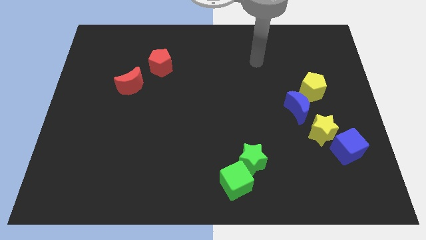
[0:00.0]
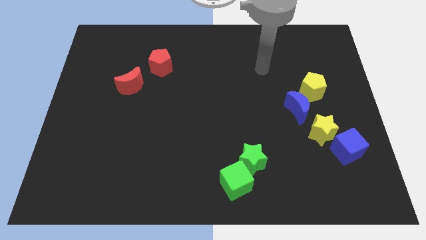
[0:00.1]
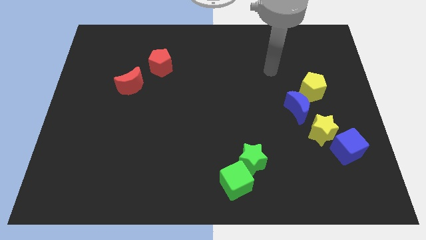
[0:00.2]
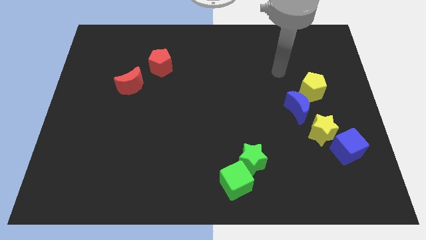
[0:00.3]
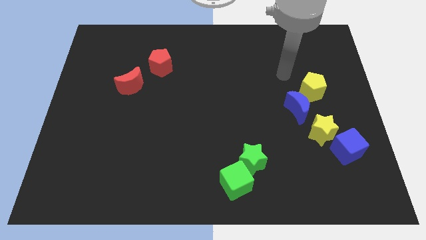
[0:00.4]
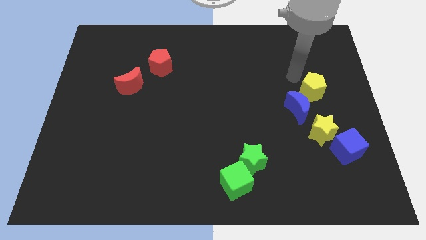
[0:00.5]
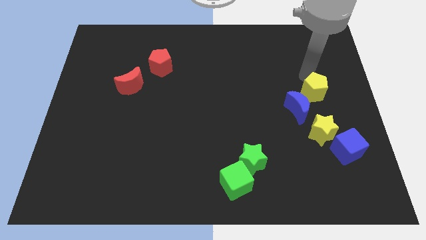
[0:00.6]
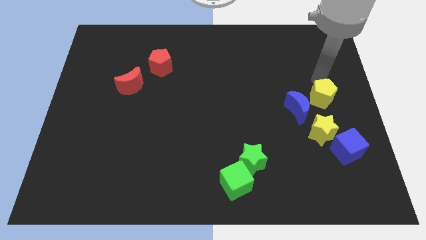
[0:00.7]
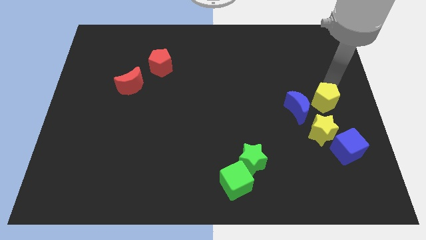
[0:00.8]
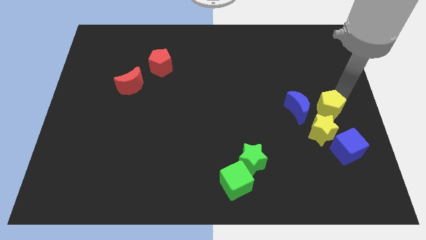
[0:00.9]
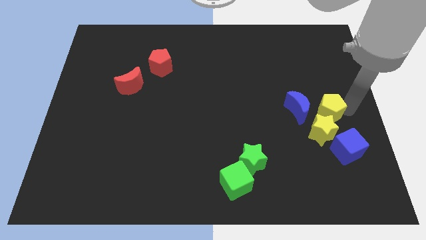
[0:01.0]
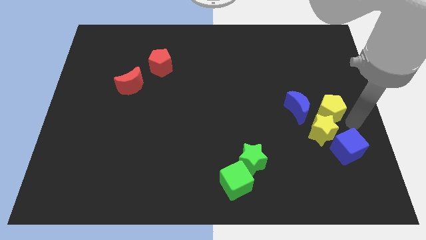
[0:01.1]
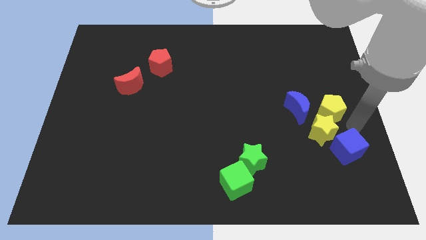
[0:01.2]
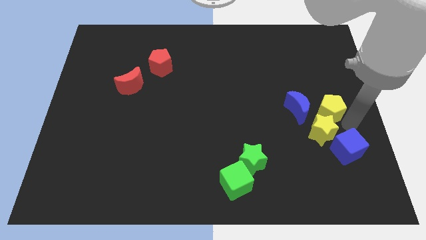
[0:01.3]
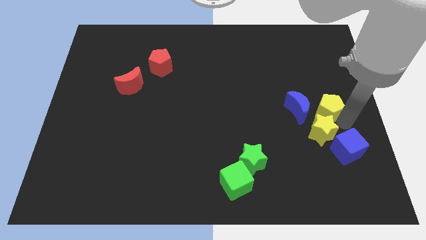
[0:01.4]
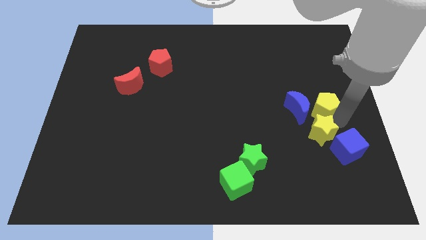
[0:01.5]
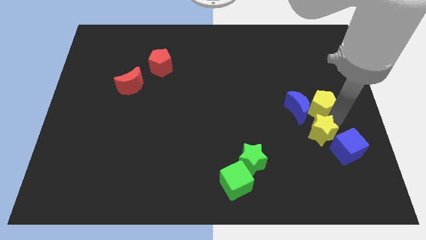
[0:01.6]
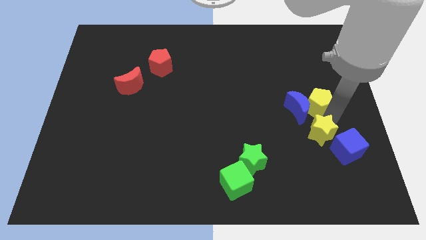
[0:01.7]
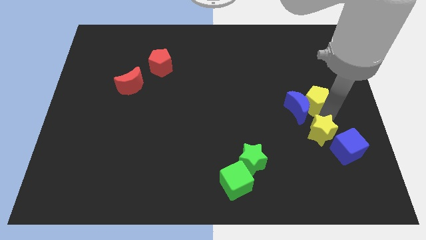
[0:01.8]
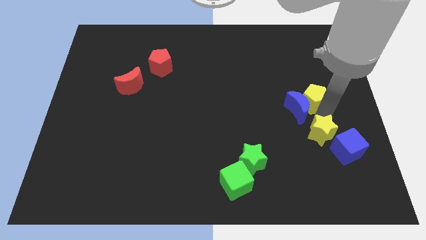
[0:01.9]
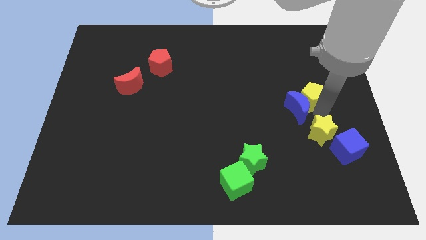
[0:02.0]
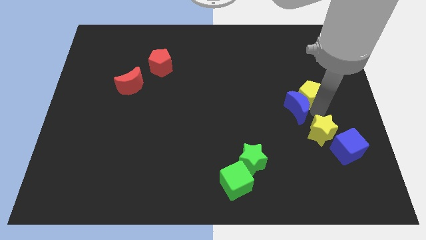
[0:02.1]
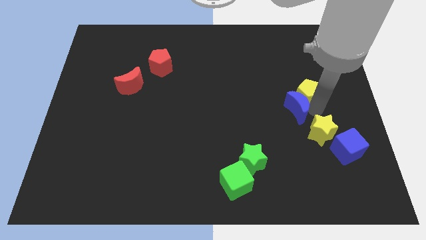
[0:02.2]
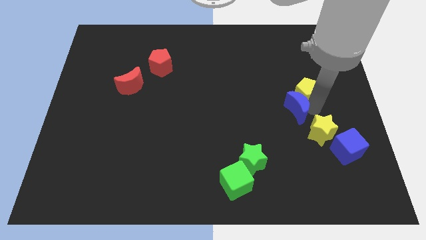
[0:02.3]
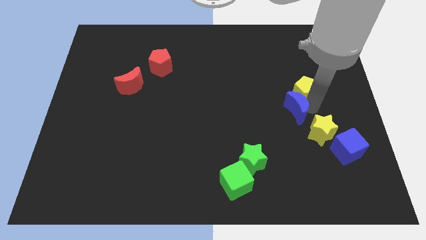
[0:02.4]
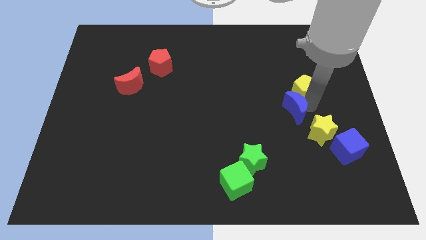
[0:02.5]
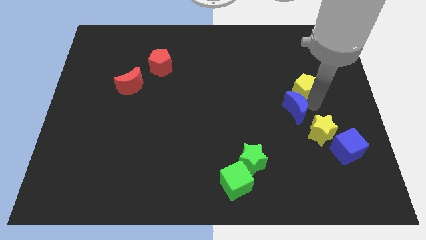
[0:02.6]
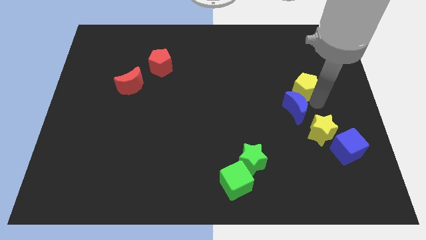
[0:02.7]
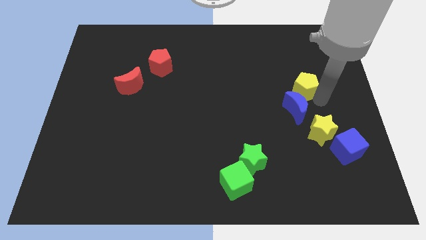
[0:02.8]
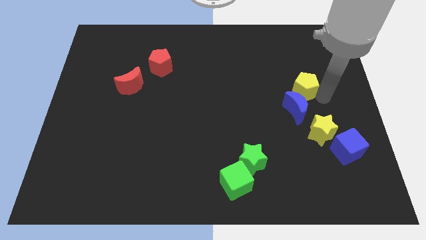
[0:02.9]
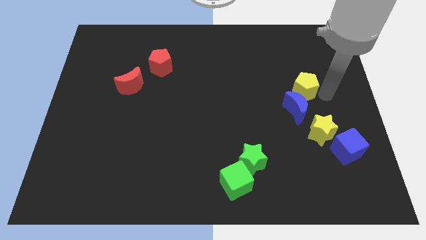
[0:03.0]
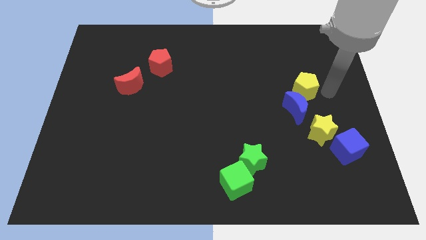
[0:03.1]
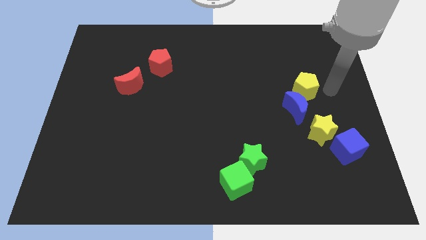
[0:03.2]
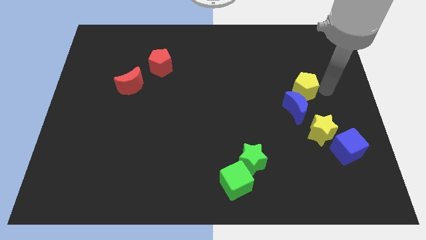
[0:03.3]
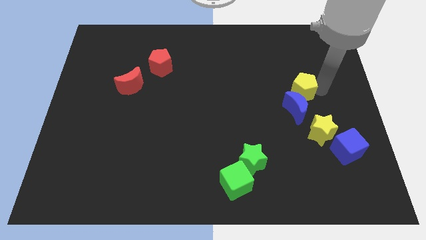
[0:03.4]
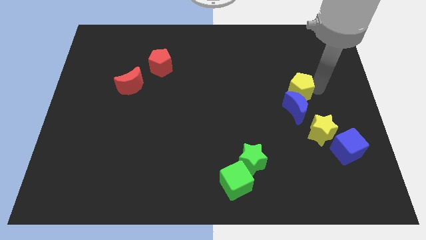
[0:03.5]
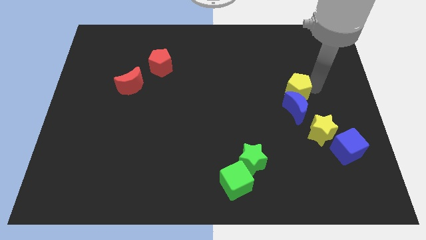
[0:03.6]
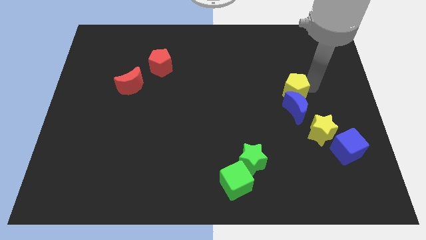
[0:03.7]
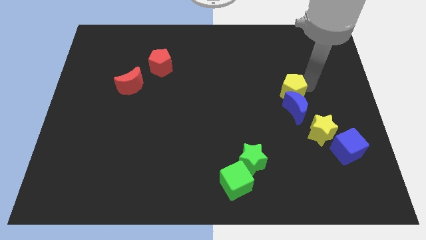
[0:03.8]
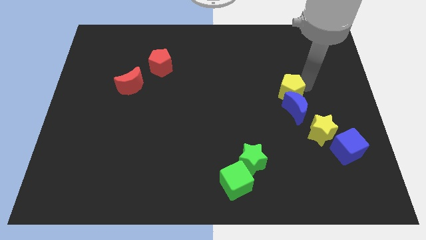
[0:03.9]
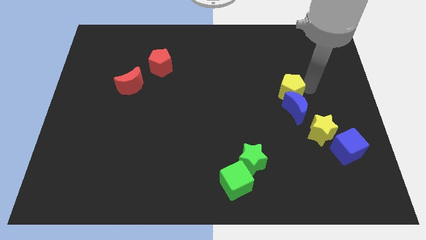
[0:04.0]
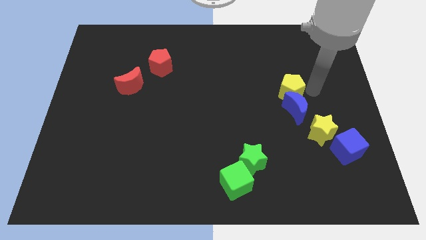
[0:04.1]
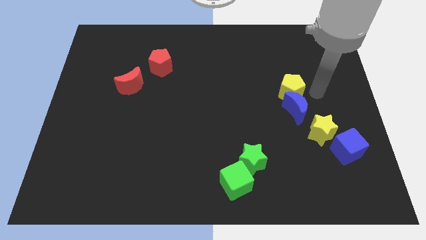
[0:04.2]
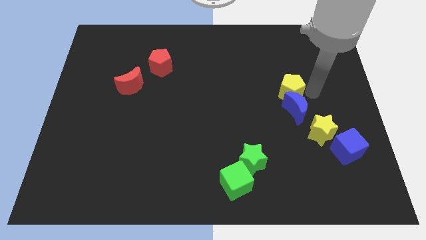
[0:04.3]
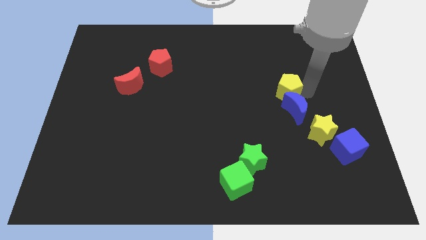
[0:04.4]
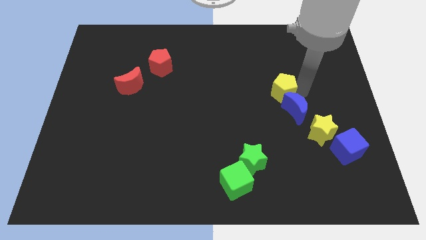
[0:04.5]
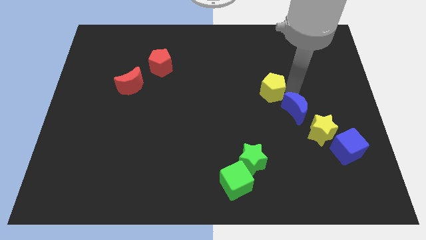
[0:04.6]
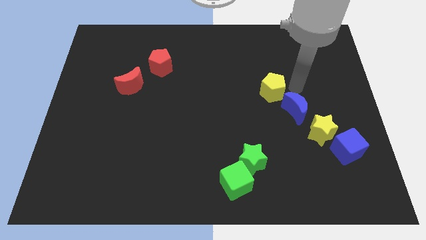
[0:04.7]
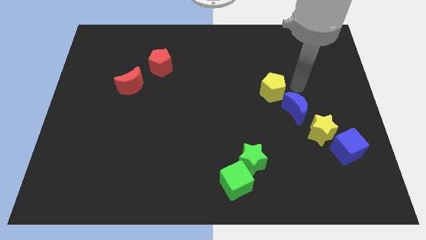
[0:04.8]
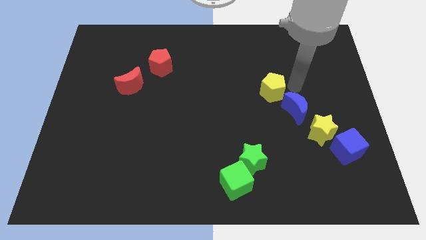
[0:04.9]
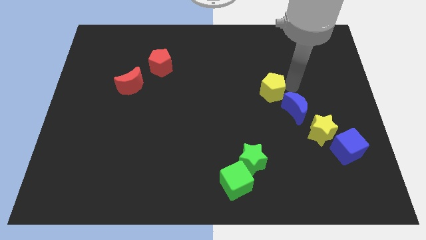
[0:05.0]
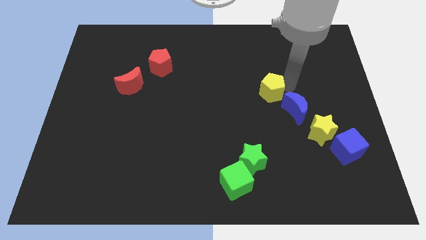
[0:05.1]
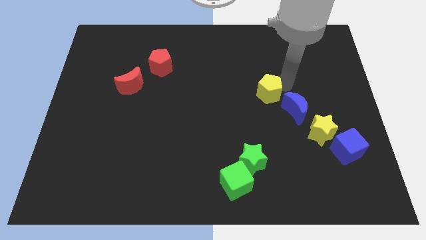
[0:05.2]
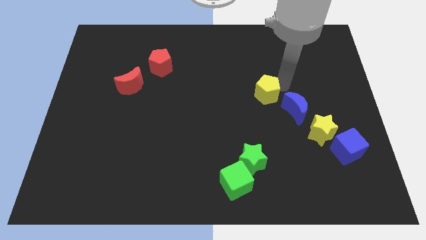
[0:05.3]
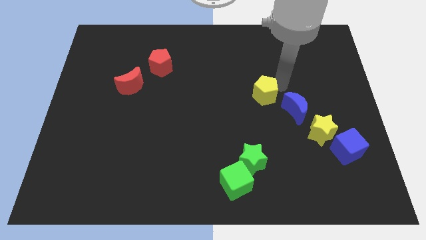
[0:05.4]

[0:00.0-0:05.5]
slide the yellow pentagon to the center of the board
